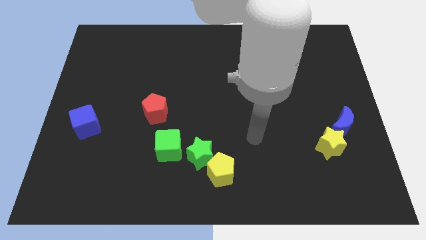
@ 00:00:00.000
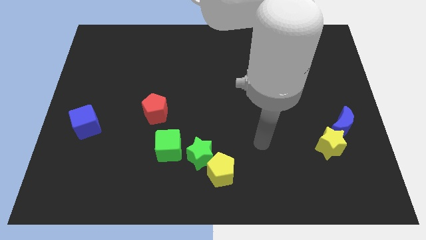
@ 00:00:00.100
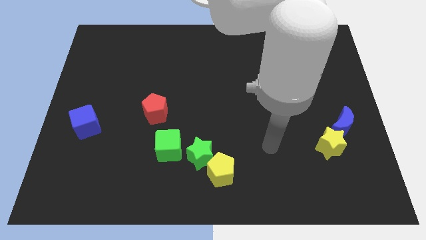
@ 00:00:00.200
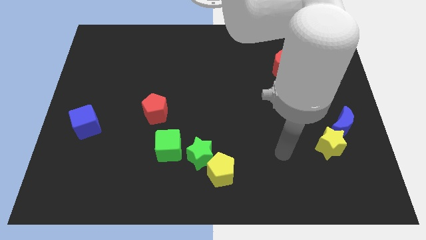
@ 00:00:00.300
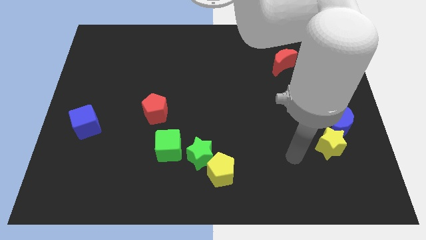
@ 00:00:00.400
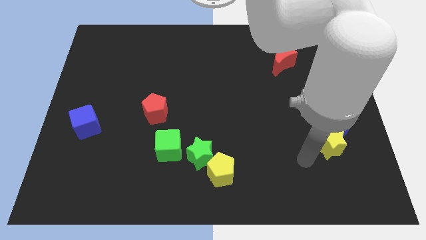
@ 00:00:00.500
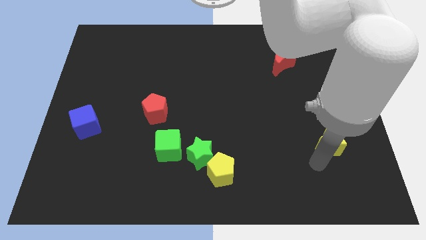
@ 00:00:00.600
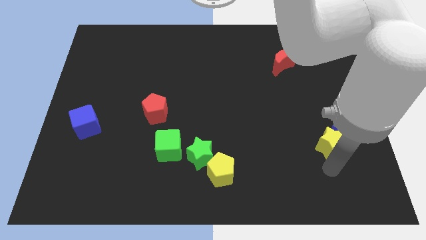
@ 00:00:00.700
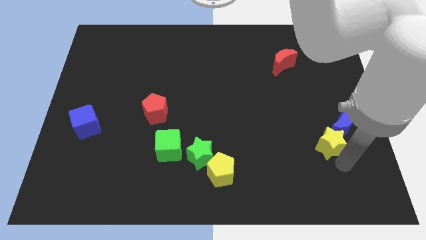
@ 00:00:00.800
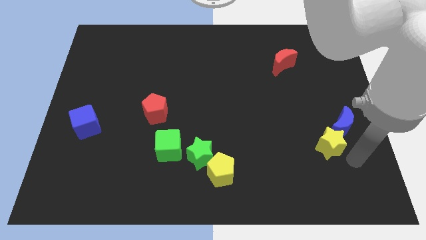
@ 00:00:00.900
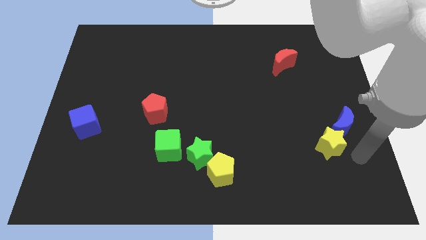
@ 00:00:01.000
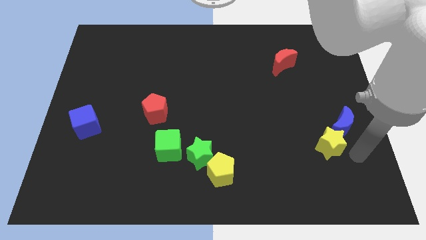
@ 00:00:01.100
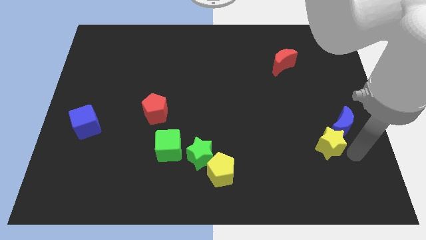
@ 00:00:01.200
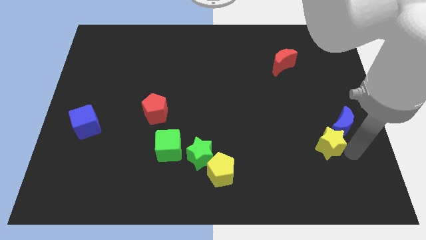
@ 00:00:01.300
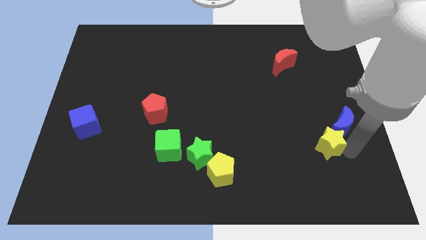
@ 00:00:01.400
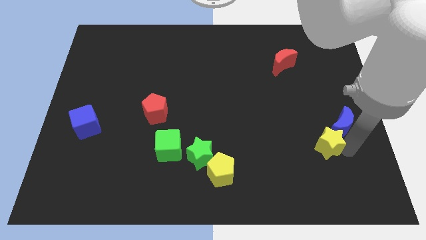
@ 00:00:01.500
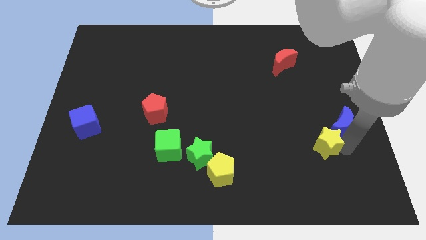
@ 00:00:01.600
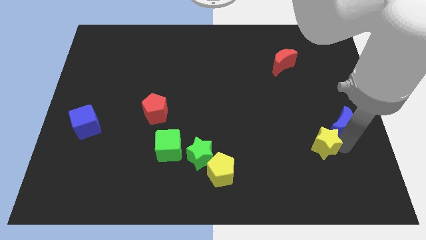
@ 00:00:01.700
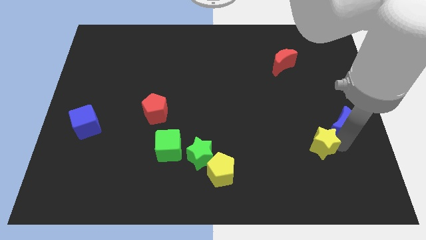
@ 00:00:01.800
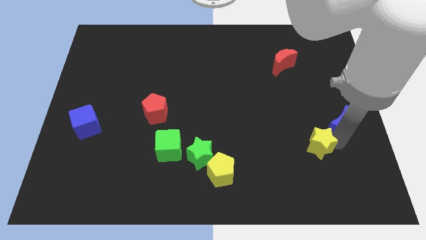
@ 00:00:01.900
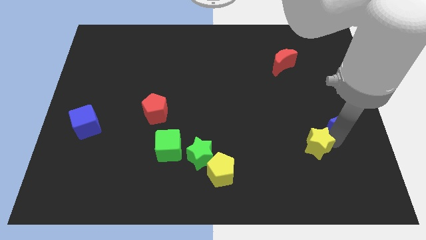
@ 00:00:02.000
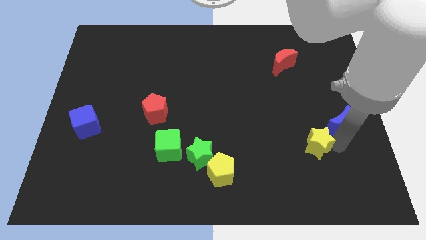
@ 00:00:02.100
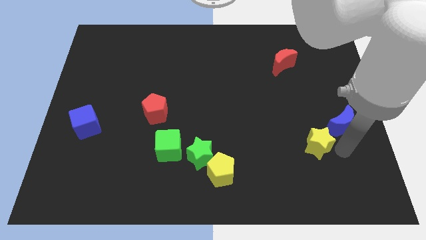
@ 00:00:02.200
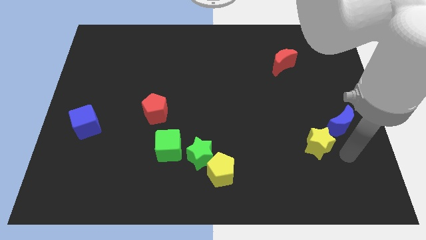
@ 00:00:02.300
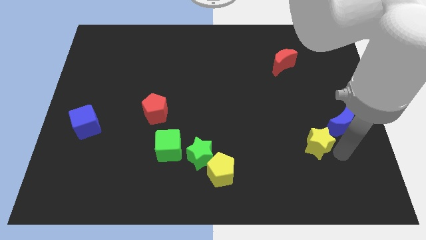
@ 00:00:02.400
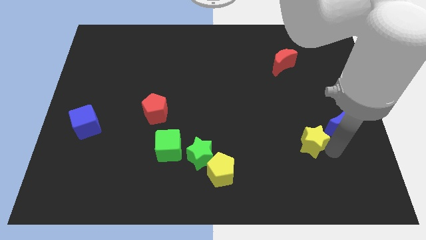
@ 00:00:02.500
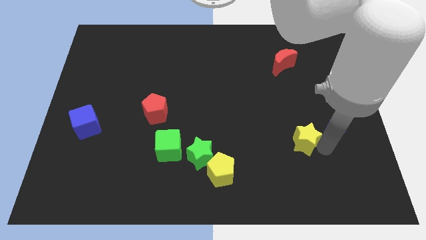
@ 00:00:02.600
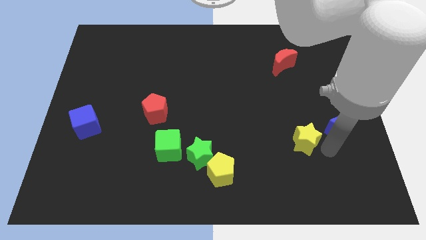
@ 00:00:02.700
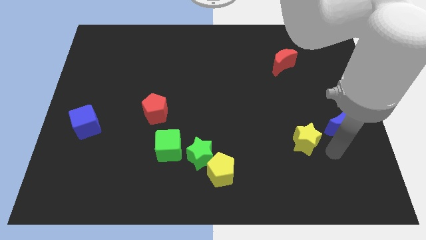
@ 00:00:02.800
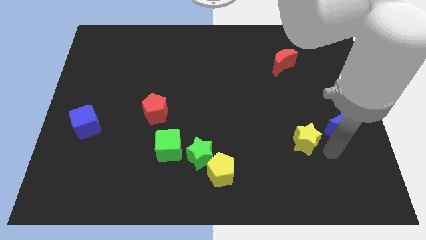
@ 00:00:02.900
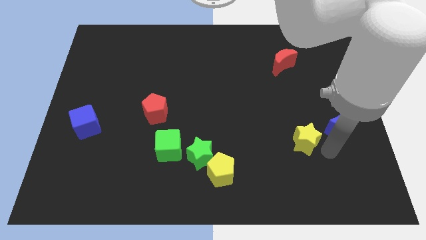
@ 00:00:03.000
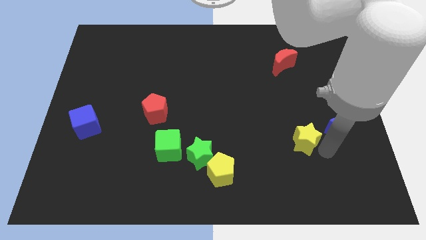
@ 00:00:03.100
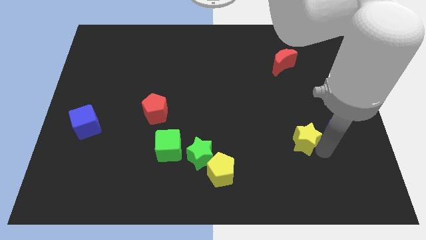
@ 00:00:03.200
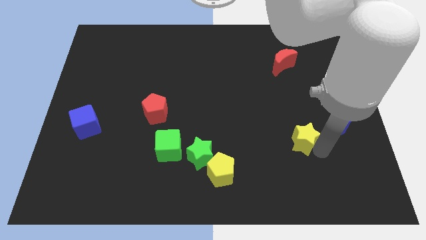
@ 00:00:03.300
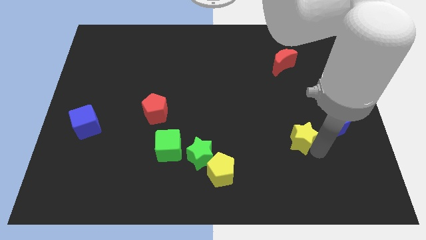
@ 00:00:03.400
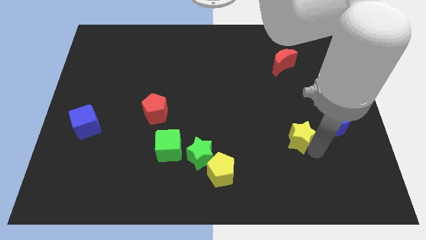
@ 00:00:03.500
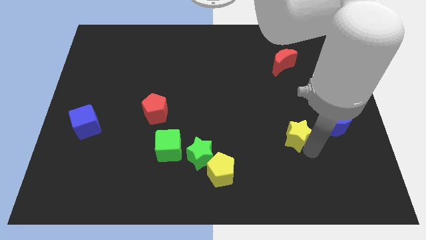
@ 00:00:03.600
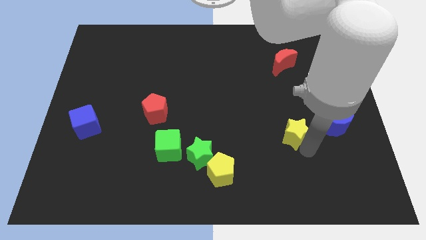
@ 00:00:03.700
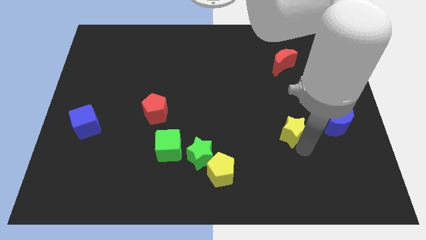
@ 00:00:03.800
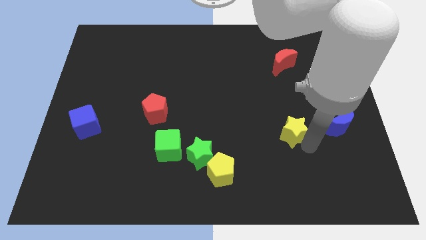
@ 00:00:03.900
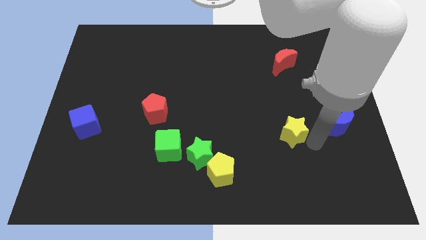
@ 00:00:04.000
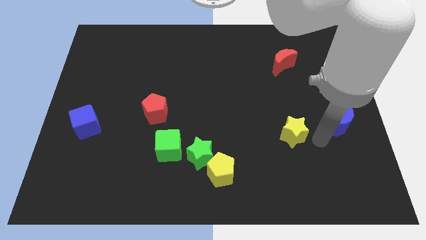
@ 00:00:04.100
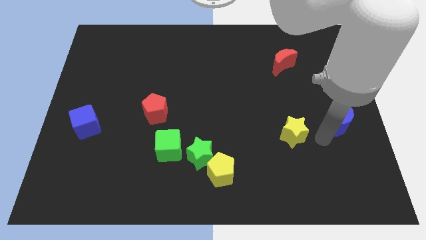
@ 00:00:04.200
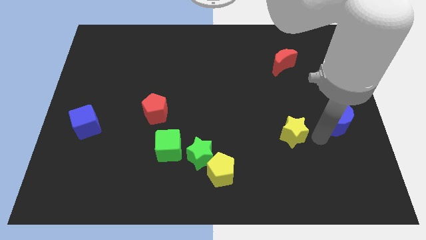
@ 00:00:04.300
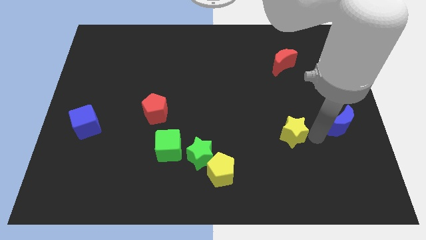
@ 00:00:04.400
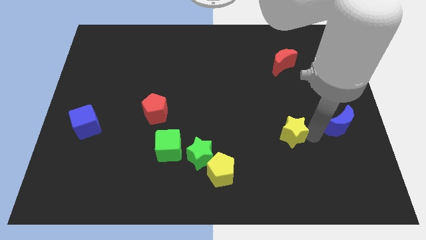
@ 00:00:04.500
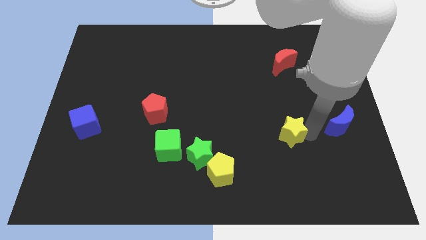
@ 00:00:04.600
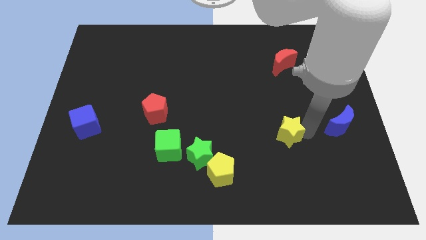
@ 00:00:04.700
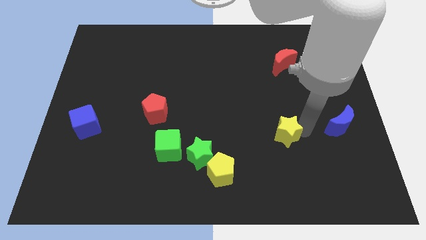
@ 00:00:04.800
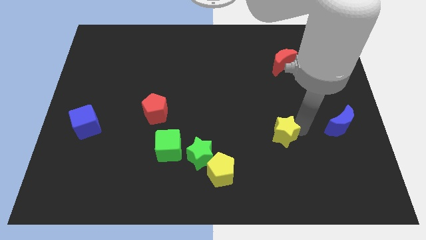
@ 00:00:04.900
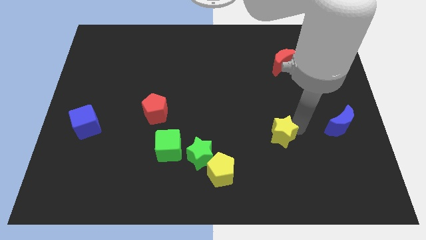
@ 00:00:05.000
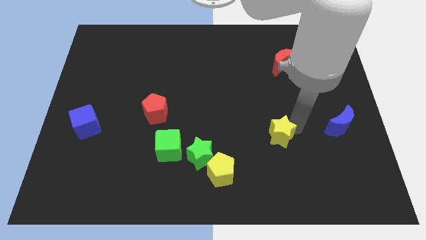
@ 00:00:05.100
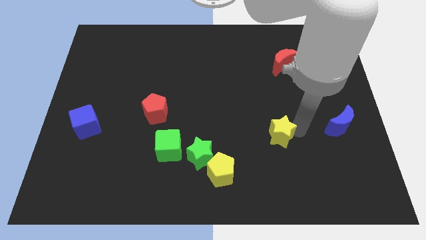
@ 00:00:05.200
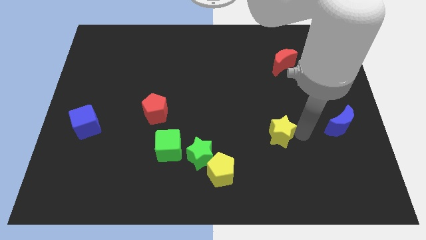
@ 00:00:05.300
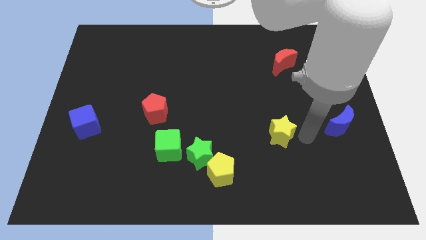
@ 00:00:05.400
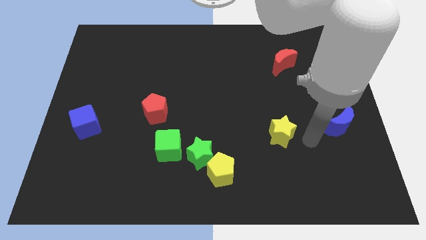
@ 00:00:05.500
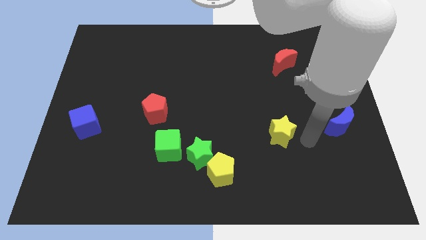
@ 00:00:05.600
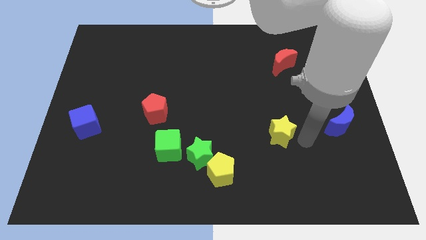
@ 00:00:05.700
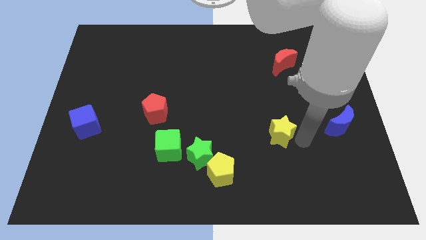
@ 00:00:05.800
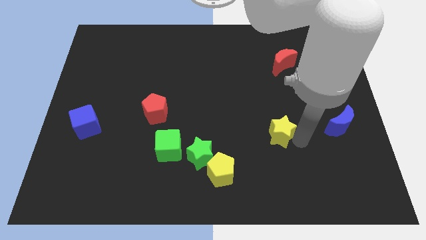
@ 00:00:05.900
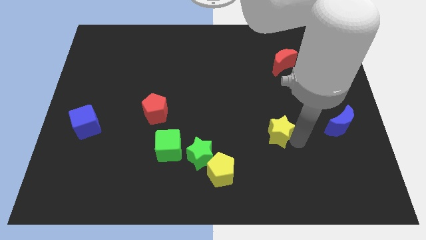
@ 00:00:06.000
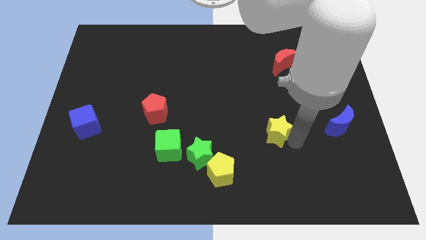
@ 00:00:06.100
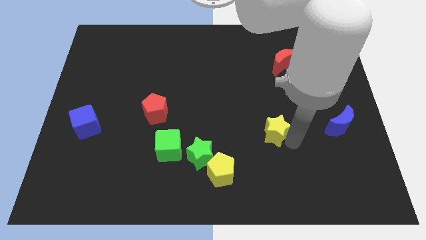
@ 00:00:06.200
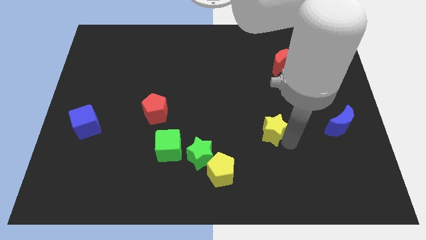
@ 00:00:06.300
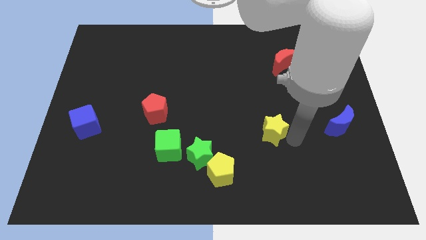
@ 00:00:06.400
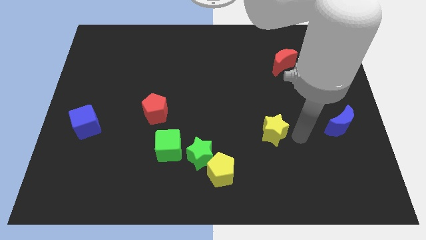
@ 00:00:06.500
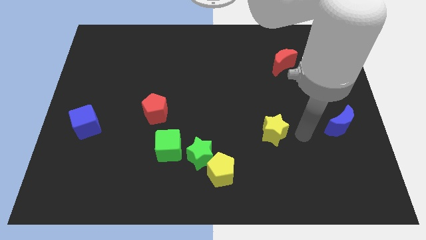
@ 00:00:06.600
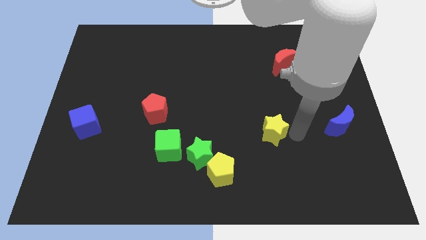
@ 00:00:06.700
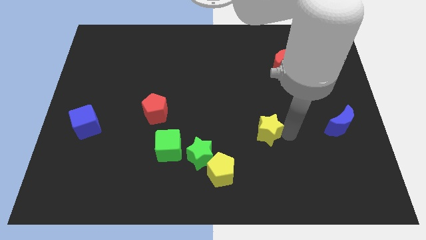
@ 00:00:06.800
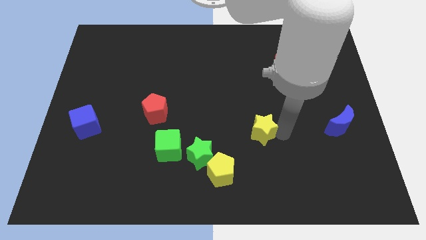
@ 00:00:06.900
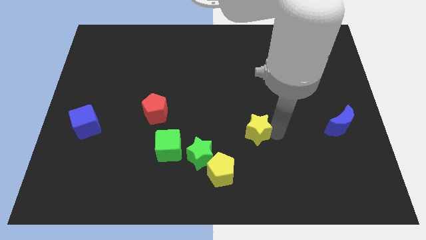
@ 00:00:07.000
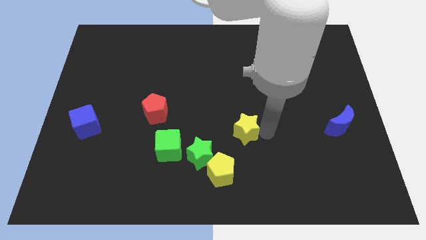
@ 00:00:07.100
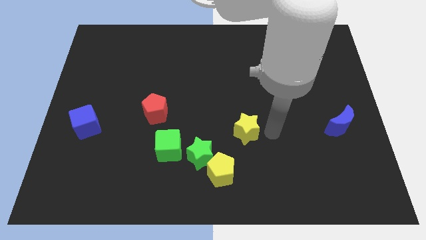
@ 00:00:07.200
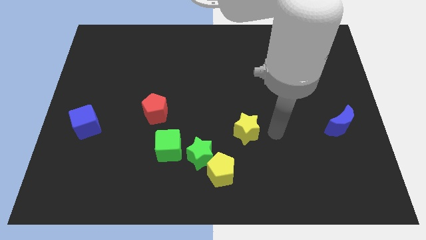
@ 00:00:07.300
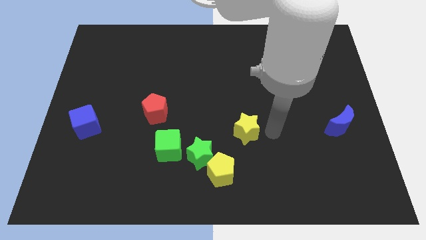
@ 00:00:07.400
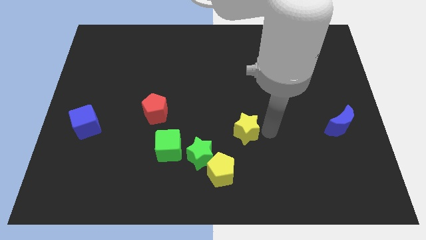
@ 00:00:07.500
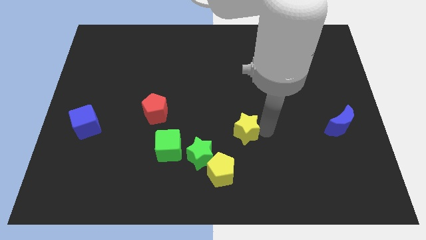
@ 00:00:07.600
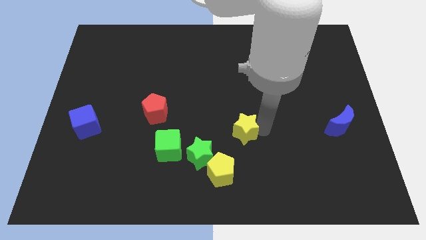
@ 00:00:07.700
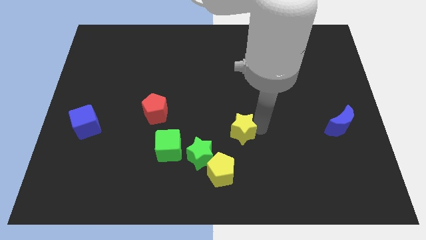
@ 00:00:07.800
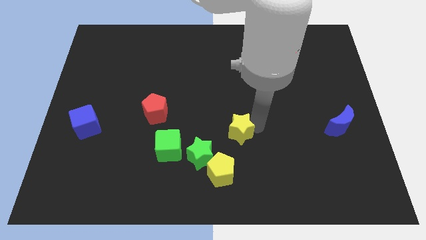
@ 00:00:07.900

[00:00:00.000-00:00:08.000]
push the yellow star to the top of the yellow pentagon
